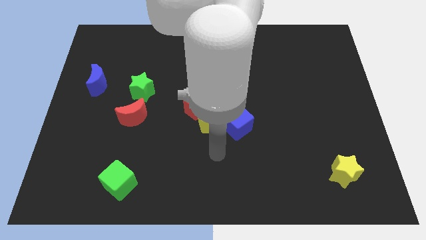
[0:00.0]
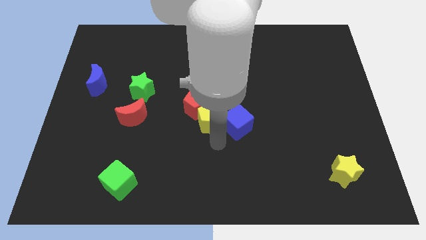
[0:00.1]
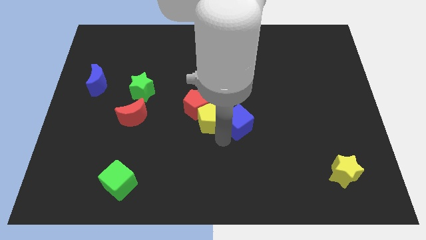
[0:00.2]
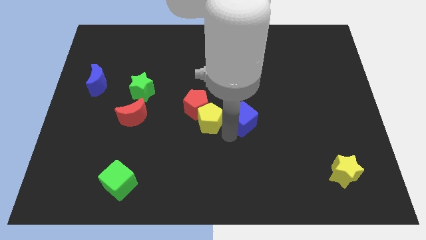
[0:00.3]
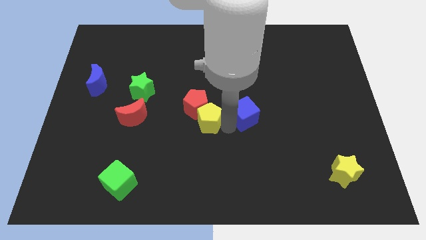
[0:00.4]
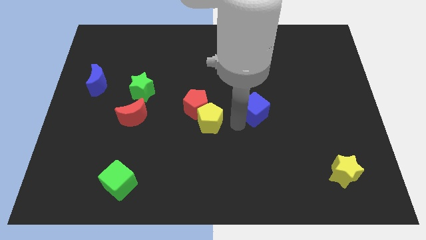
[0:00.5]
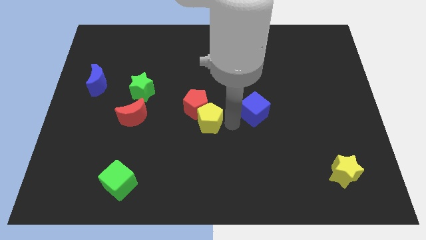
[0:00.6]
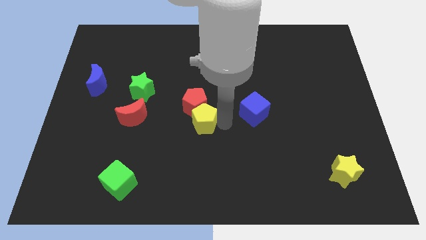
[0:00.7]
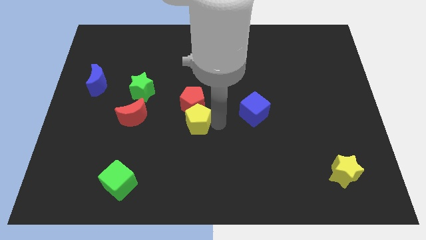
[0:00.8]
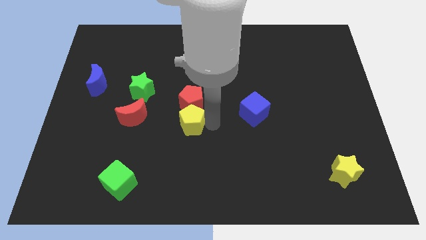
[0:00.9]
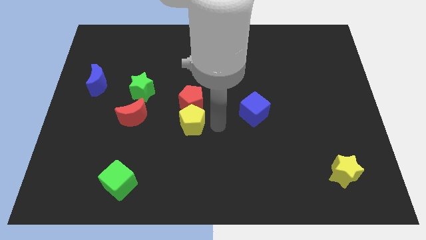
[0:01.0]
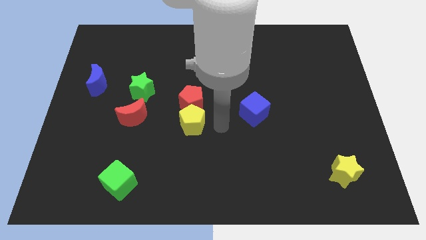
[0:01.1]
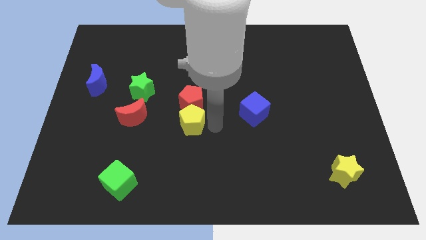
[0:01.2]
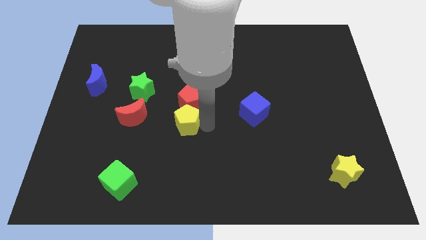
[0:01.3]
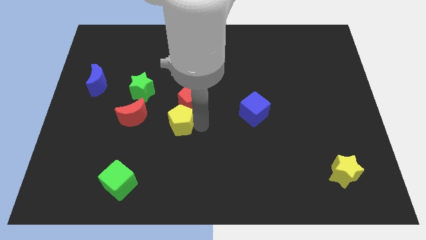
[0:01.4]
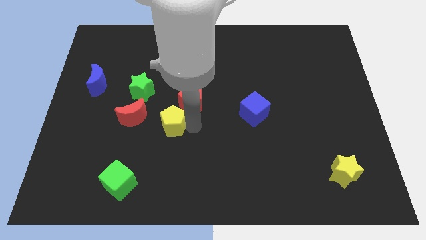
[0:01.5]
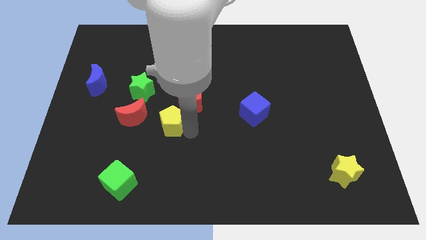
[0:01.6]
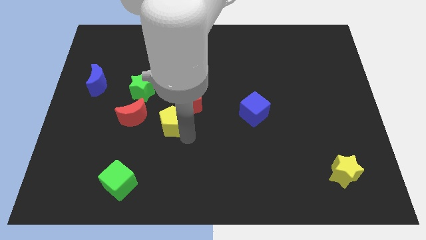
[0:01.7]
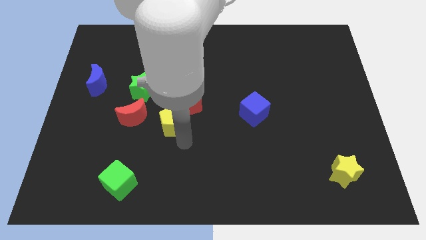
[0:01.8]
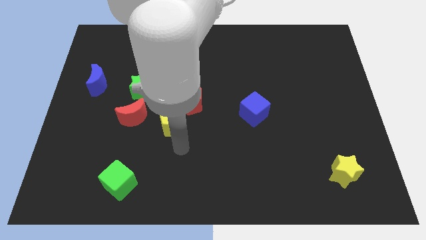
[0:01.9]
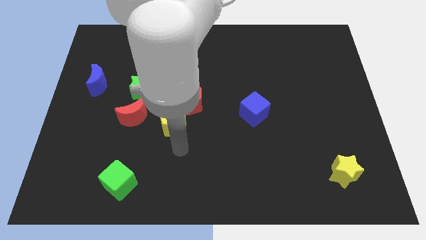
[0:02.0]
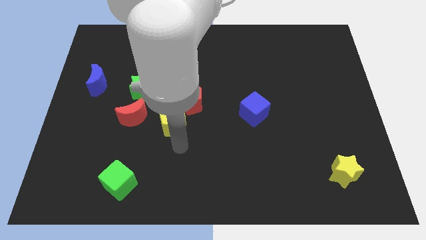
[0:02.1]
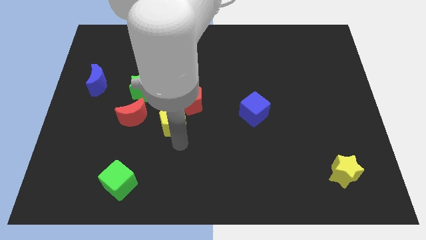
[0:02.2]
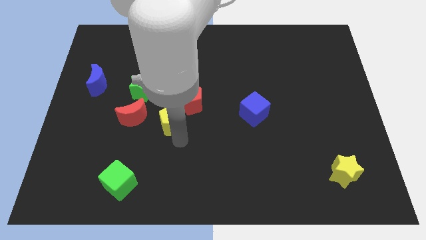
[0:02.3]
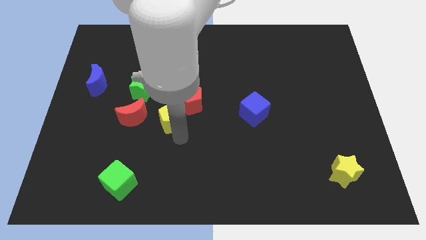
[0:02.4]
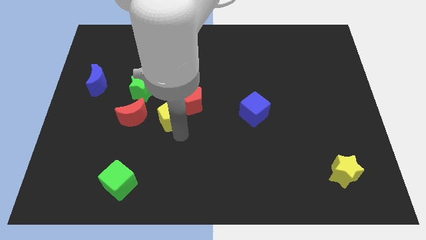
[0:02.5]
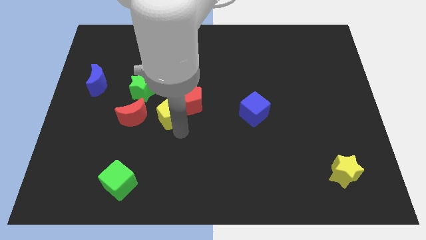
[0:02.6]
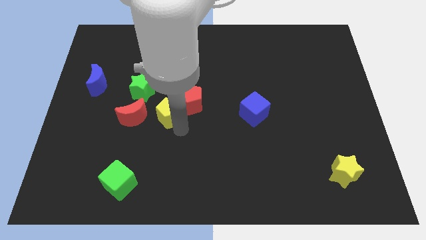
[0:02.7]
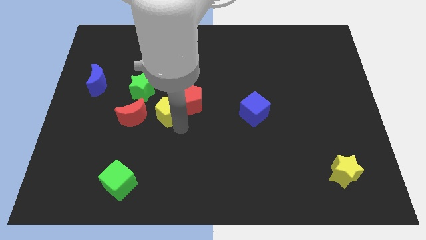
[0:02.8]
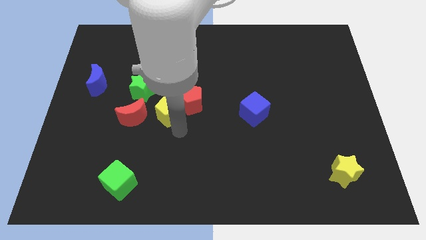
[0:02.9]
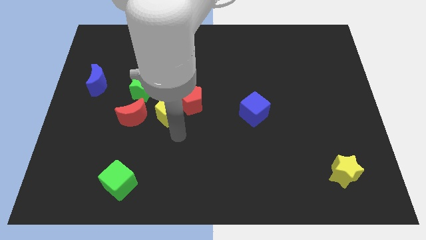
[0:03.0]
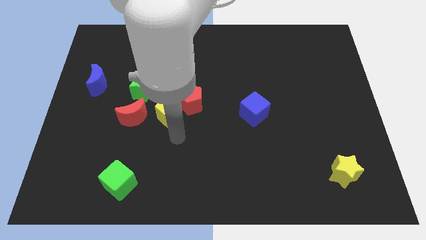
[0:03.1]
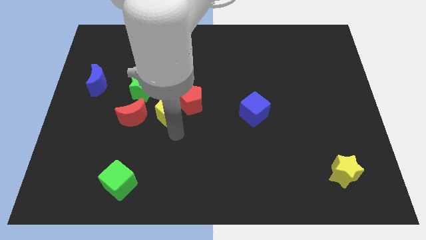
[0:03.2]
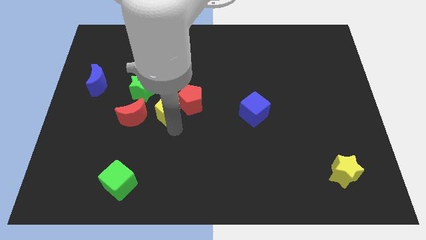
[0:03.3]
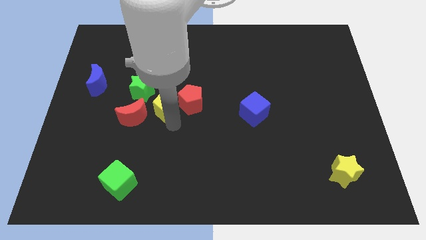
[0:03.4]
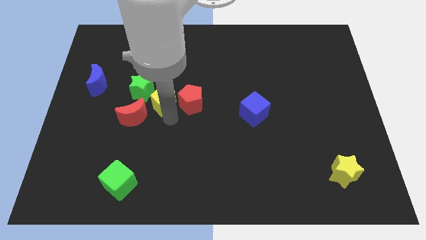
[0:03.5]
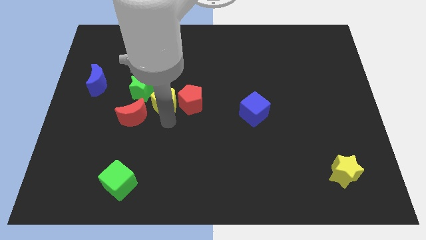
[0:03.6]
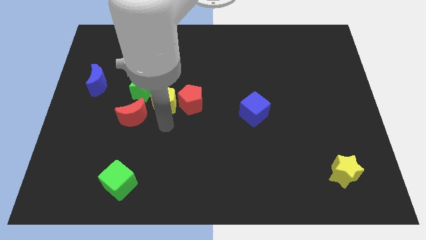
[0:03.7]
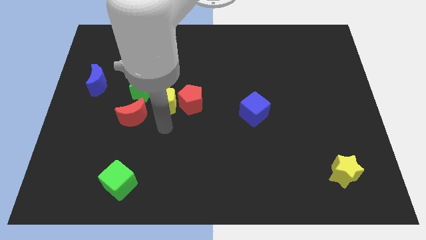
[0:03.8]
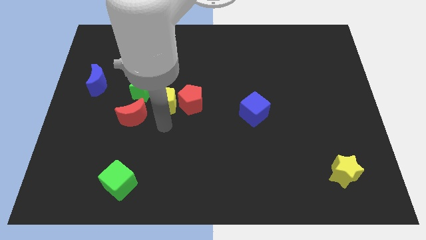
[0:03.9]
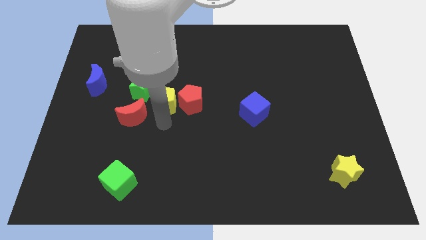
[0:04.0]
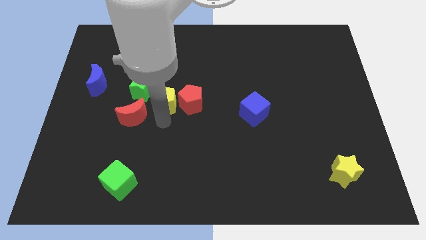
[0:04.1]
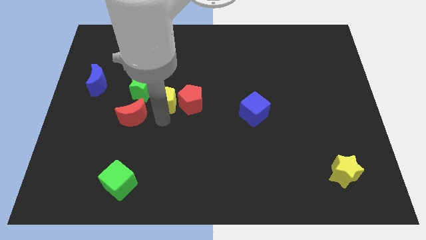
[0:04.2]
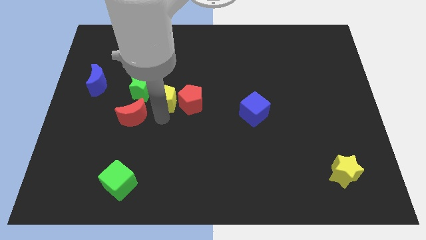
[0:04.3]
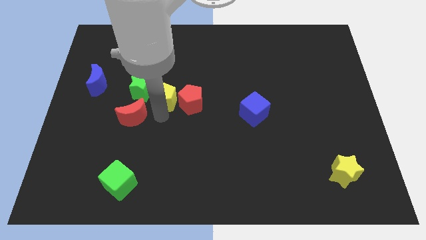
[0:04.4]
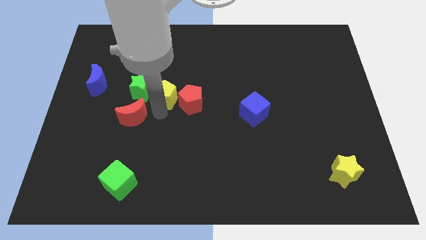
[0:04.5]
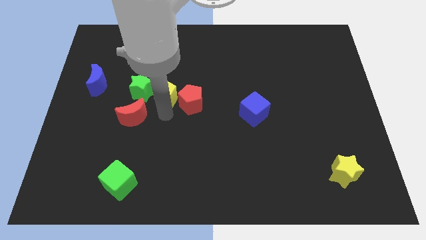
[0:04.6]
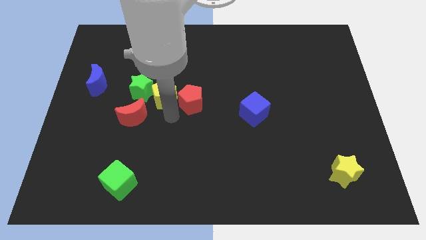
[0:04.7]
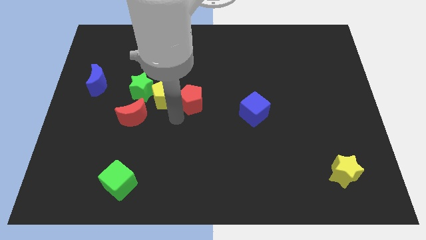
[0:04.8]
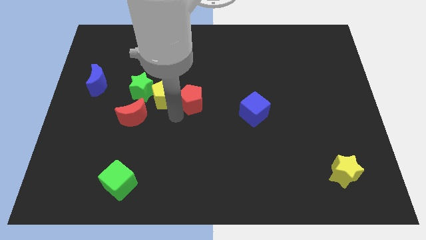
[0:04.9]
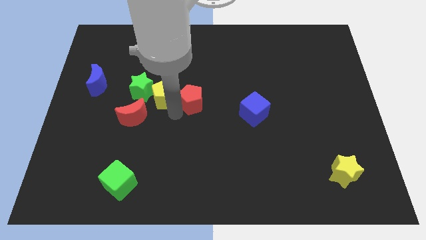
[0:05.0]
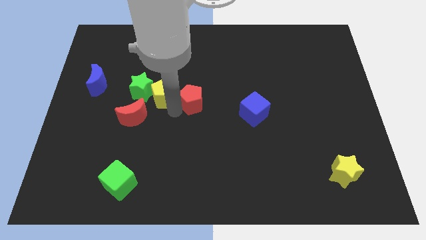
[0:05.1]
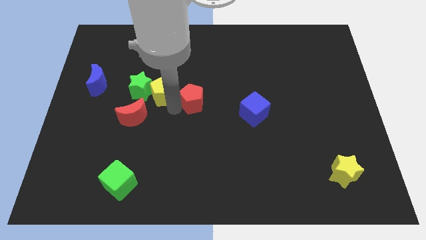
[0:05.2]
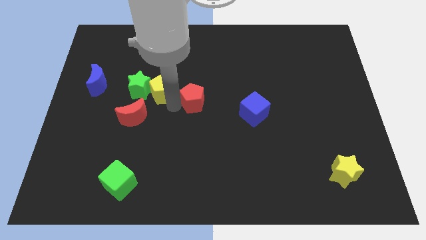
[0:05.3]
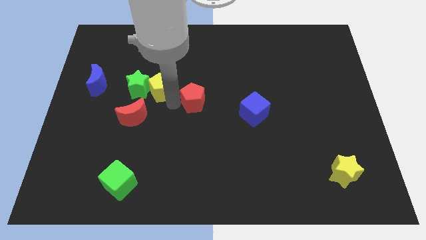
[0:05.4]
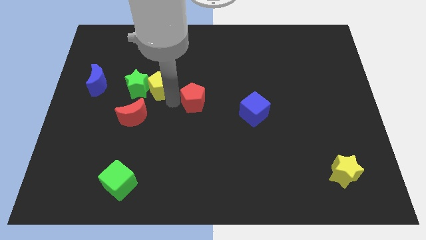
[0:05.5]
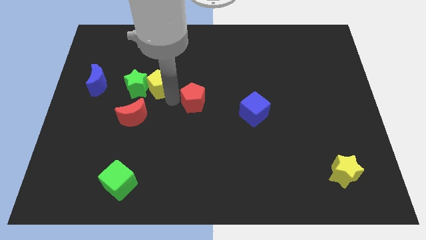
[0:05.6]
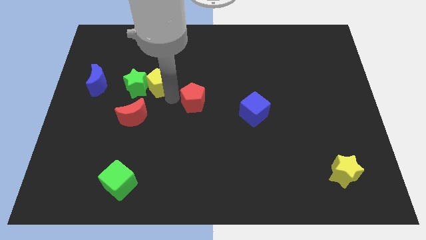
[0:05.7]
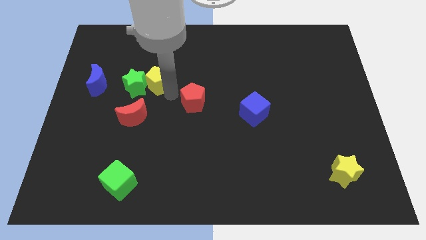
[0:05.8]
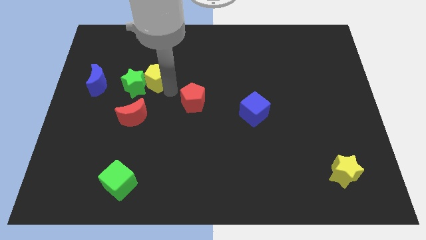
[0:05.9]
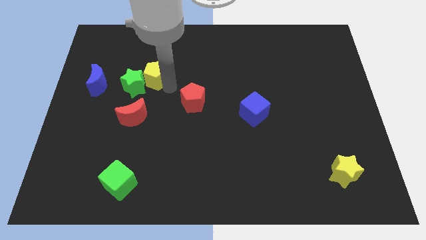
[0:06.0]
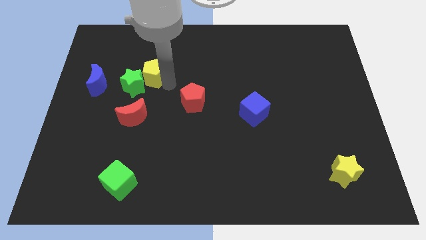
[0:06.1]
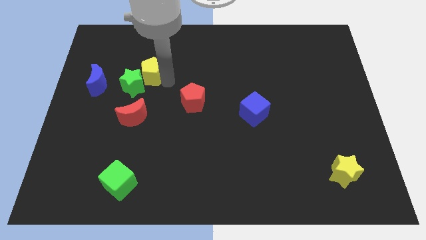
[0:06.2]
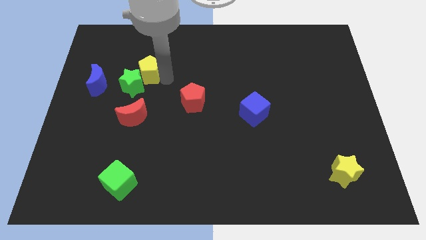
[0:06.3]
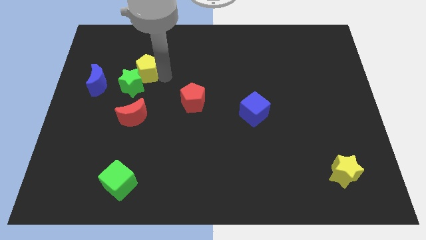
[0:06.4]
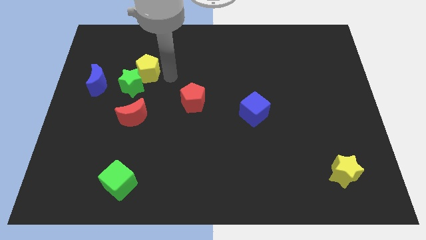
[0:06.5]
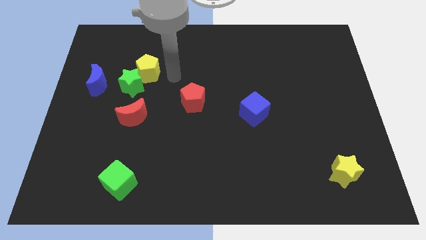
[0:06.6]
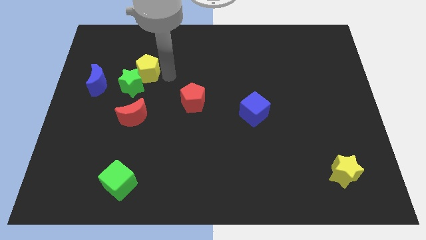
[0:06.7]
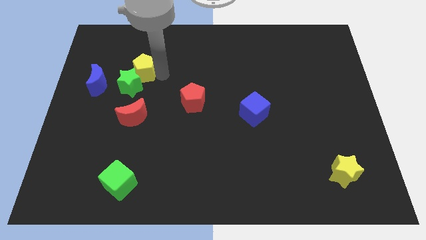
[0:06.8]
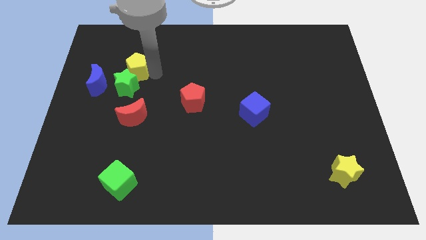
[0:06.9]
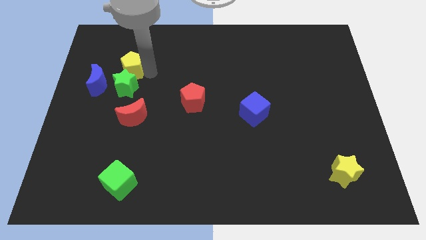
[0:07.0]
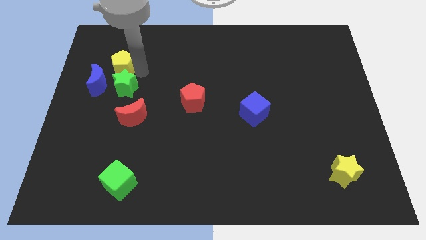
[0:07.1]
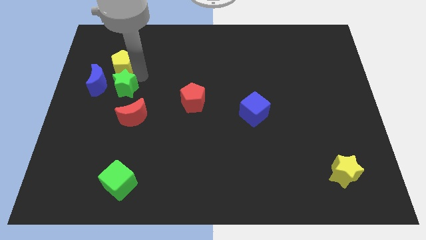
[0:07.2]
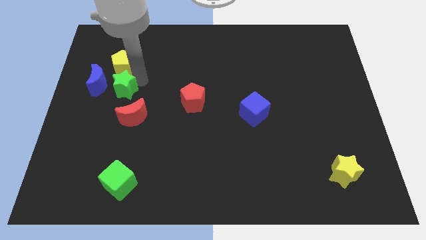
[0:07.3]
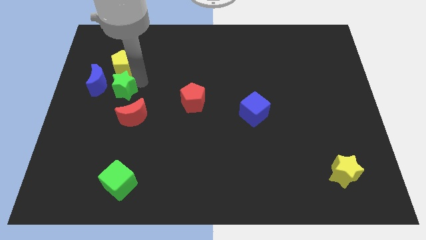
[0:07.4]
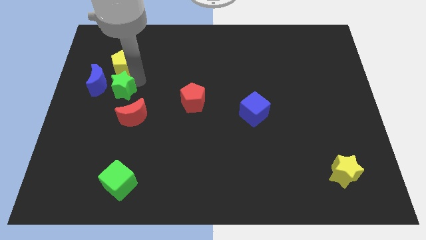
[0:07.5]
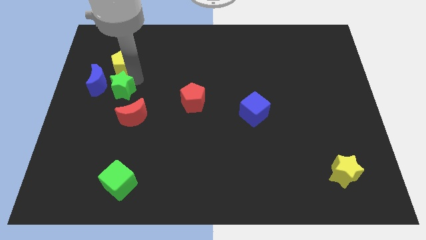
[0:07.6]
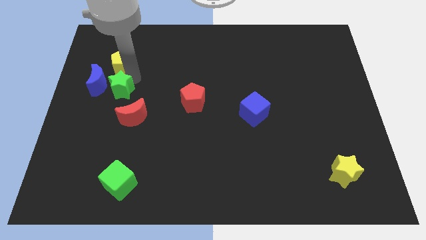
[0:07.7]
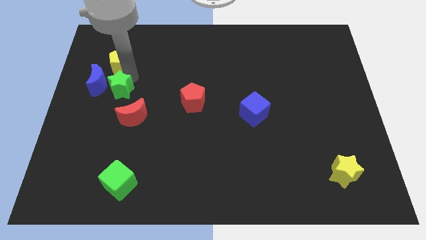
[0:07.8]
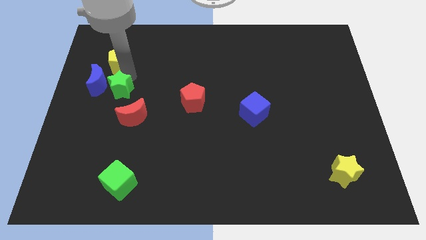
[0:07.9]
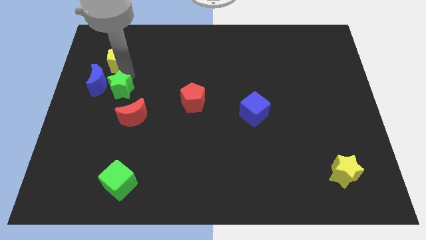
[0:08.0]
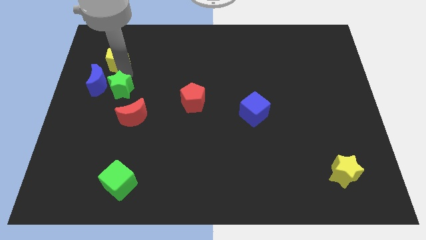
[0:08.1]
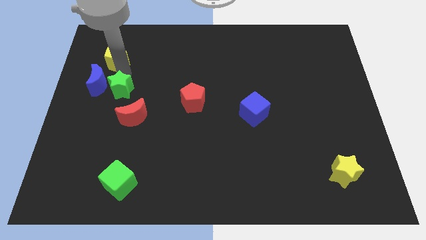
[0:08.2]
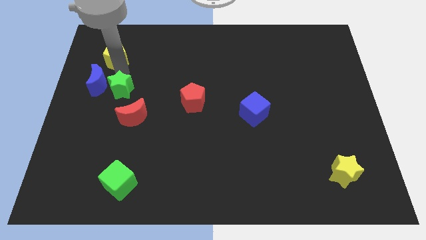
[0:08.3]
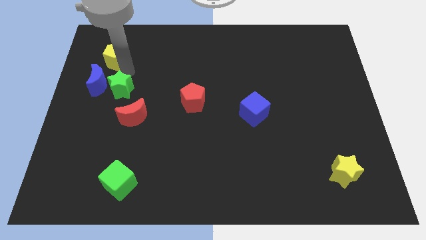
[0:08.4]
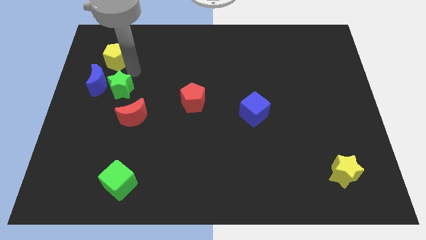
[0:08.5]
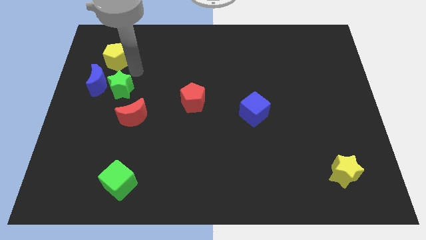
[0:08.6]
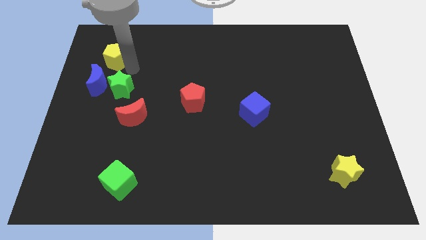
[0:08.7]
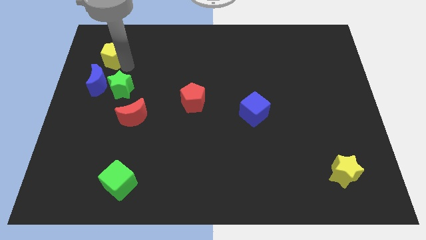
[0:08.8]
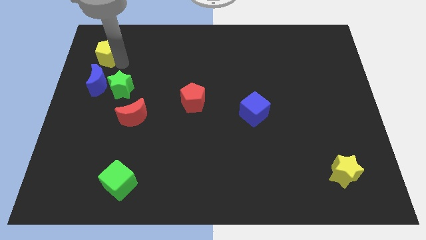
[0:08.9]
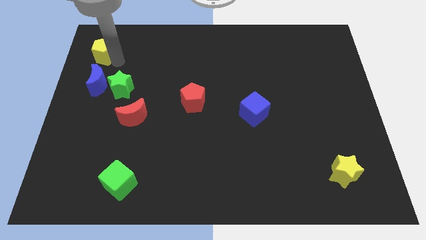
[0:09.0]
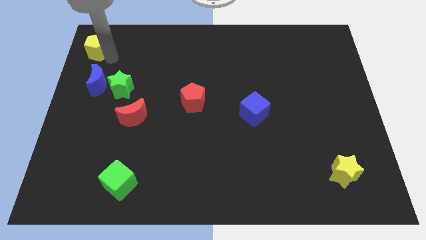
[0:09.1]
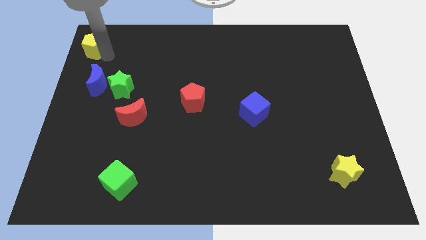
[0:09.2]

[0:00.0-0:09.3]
move the yellow pentagon to the top left corner
